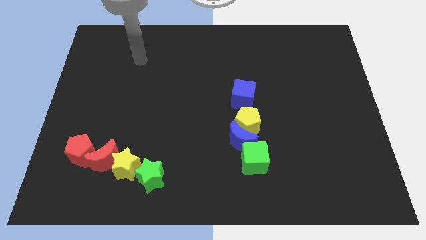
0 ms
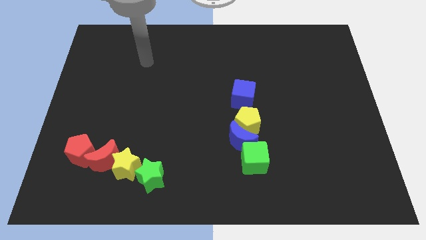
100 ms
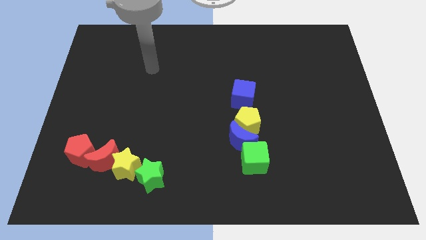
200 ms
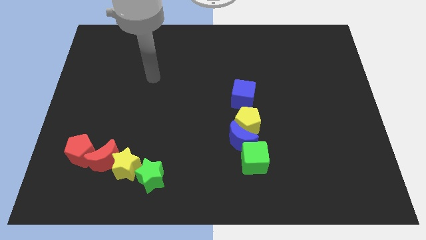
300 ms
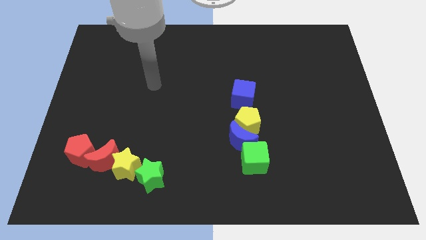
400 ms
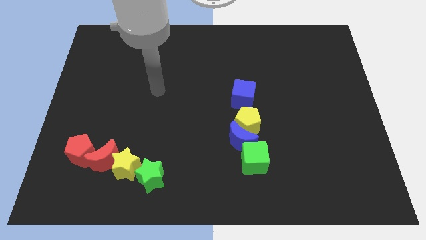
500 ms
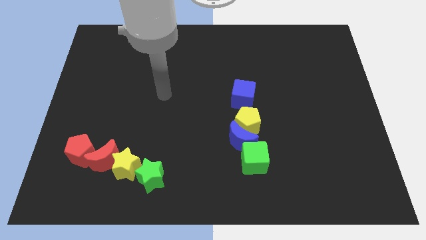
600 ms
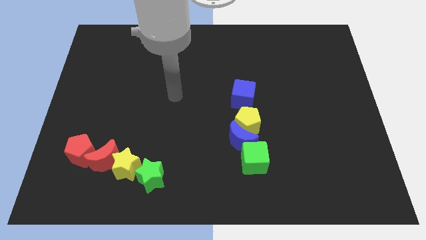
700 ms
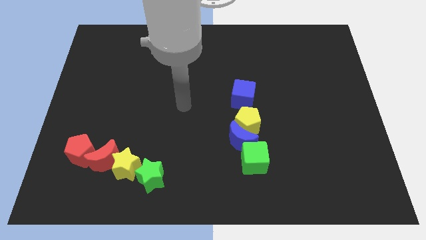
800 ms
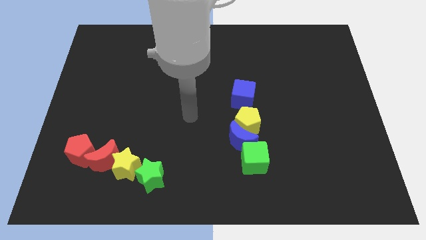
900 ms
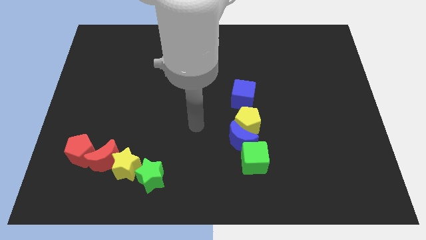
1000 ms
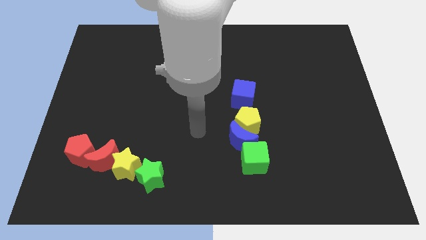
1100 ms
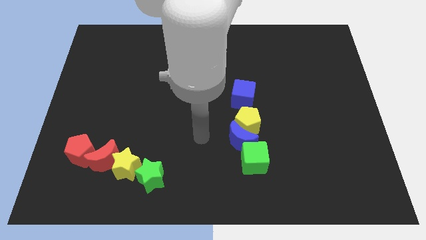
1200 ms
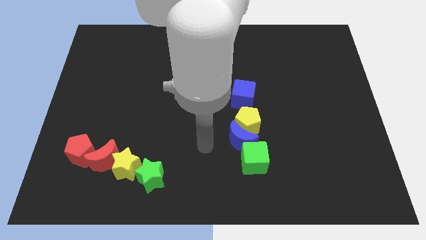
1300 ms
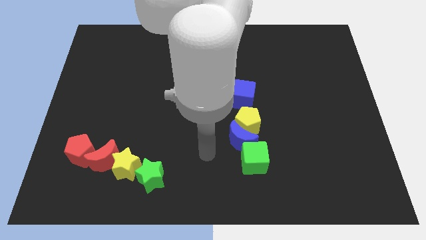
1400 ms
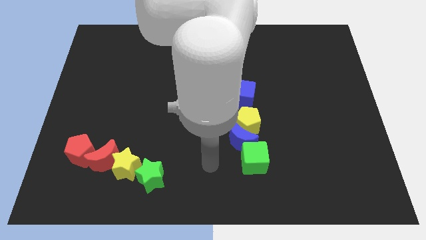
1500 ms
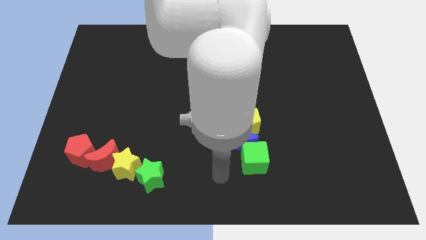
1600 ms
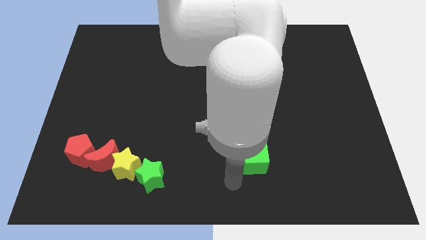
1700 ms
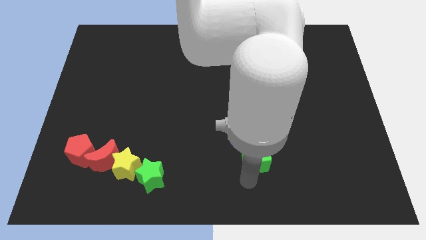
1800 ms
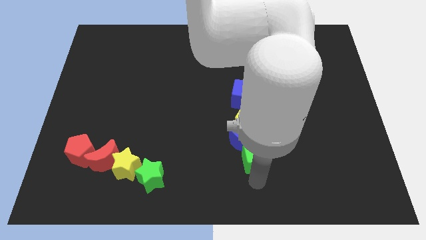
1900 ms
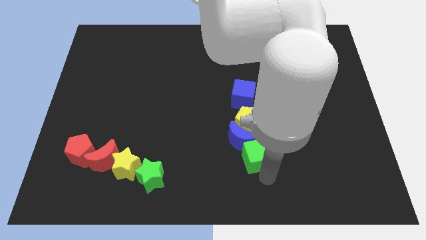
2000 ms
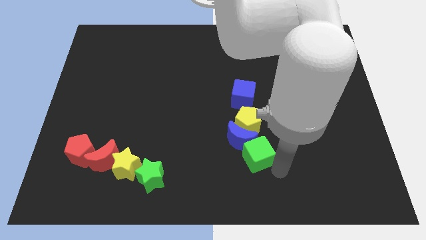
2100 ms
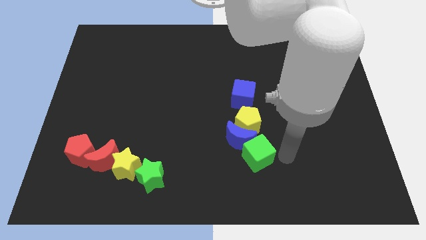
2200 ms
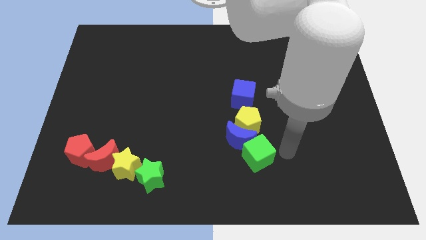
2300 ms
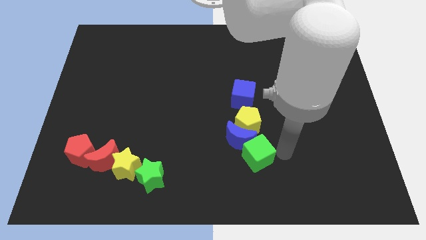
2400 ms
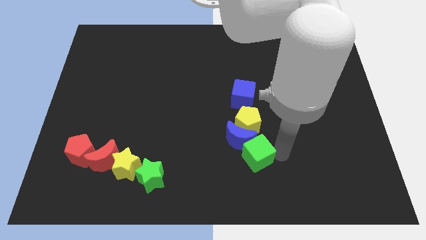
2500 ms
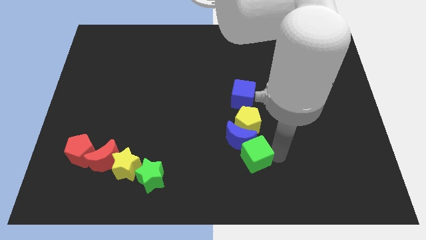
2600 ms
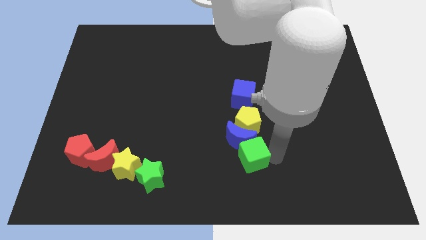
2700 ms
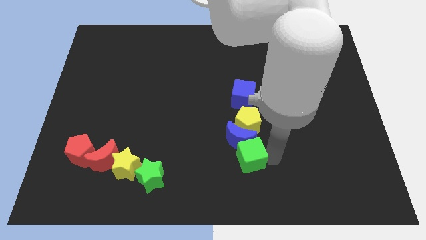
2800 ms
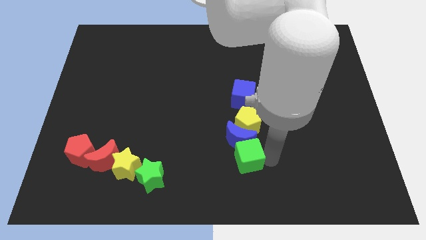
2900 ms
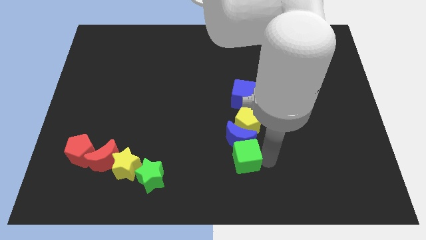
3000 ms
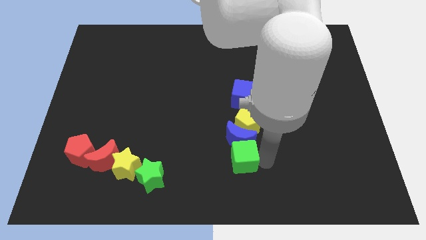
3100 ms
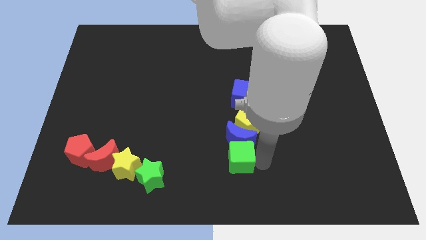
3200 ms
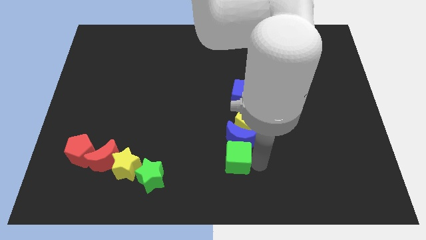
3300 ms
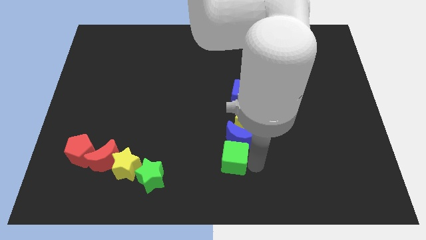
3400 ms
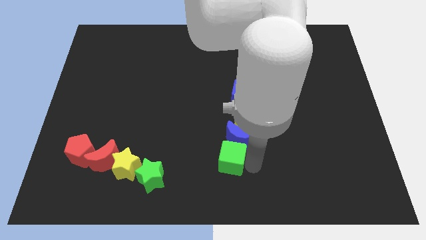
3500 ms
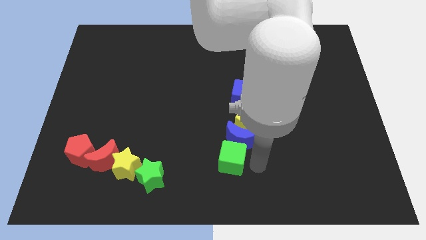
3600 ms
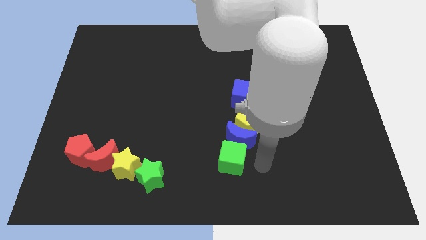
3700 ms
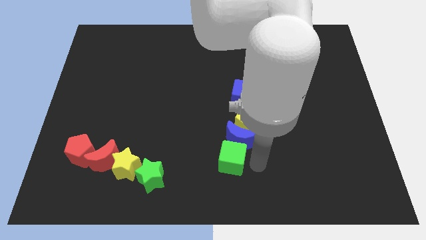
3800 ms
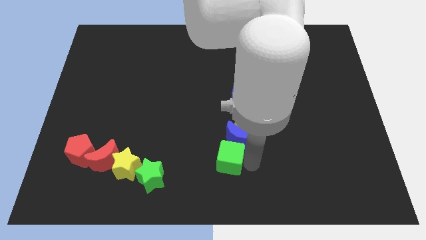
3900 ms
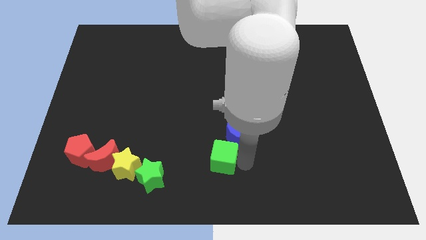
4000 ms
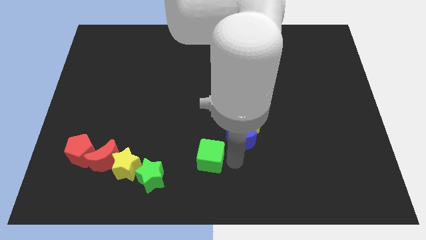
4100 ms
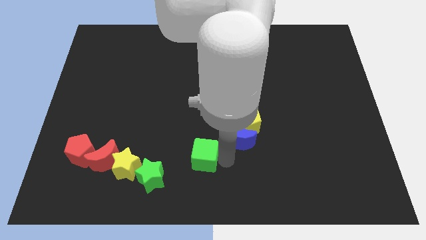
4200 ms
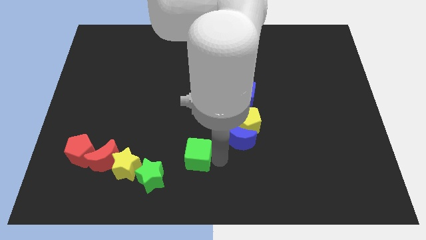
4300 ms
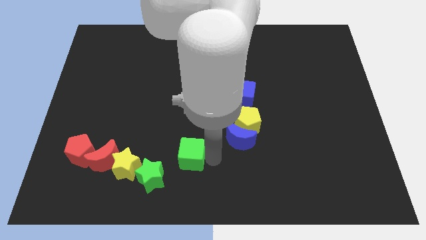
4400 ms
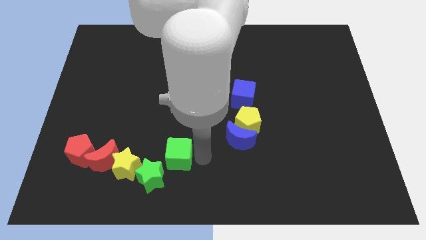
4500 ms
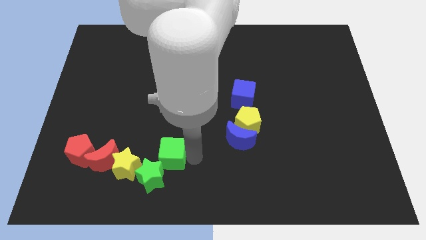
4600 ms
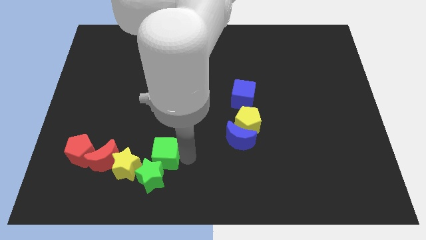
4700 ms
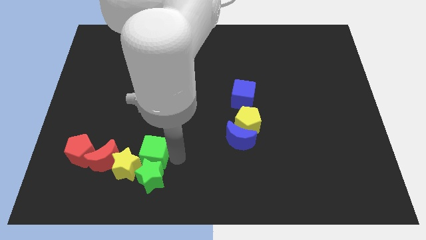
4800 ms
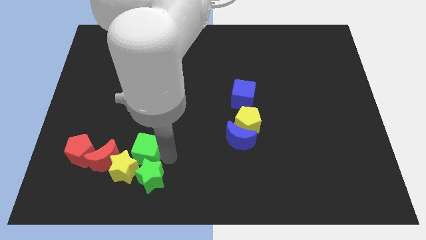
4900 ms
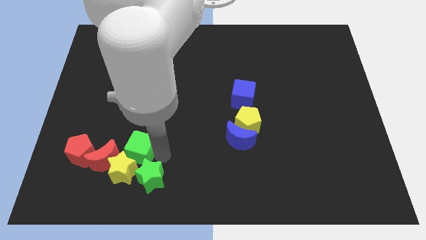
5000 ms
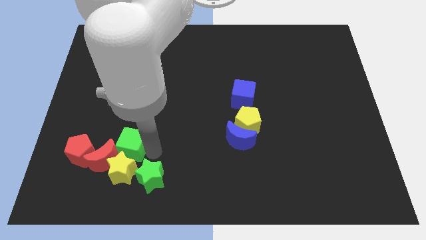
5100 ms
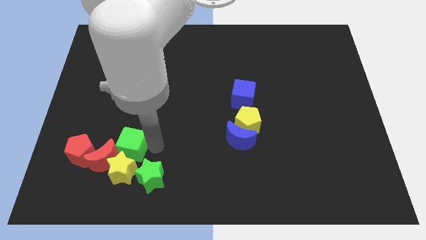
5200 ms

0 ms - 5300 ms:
slide the green cube towards the red moon

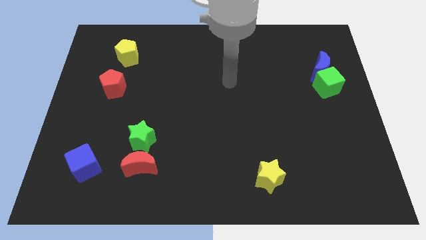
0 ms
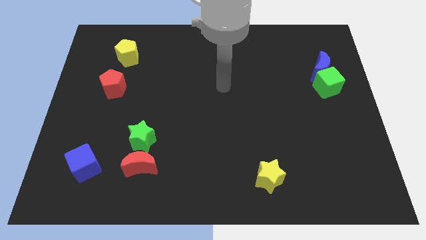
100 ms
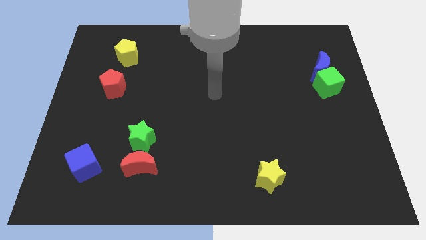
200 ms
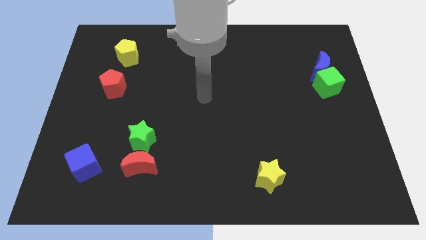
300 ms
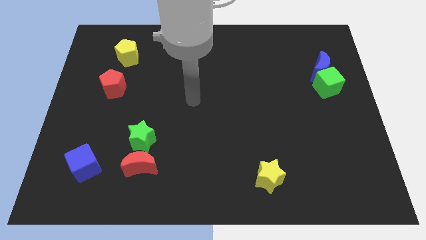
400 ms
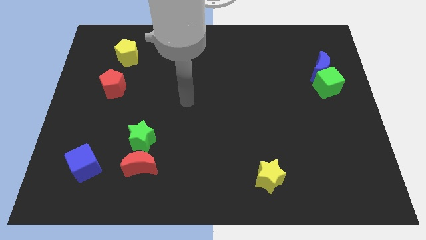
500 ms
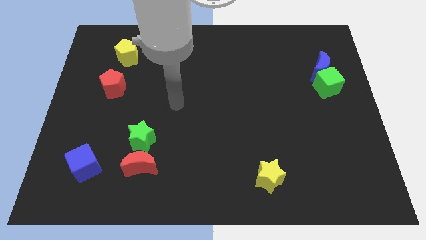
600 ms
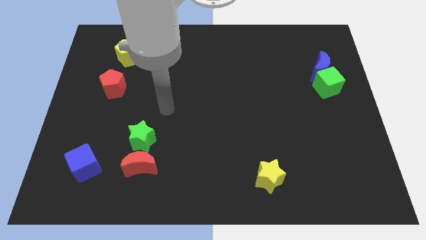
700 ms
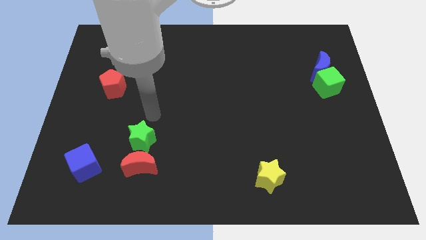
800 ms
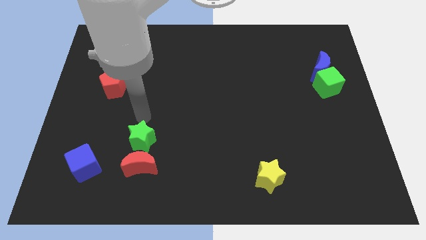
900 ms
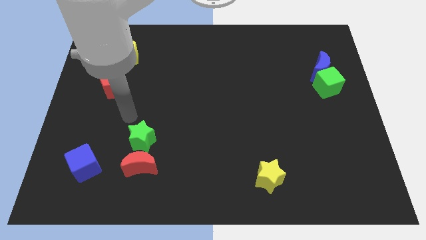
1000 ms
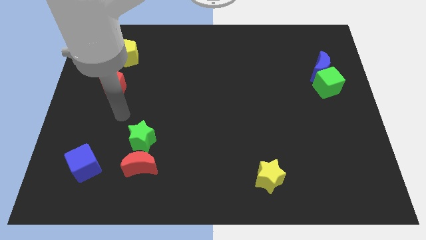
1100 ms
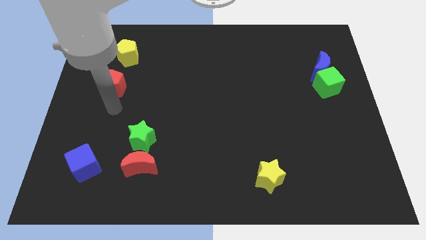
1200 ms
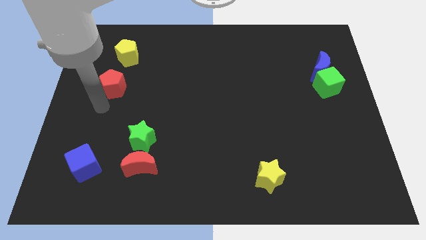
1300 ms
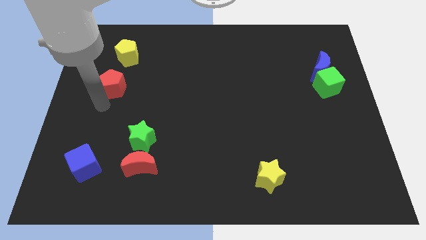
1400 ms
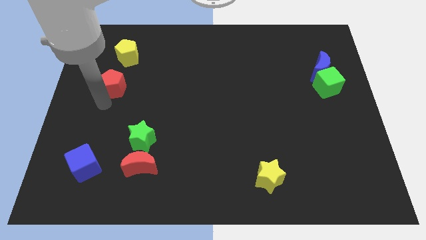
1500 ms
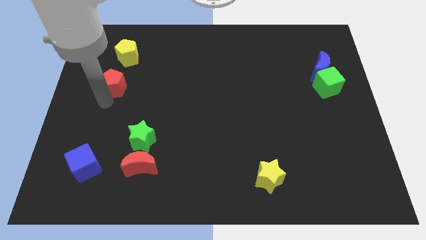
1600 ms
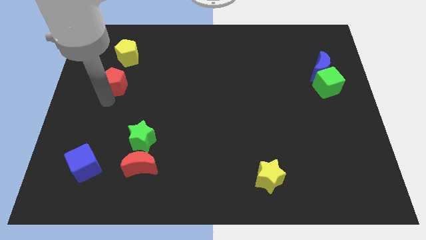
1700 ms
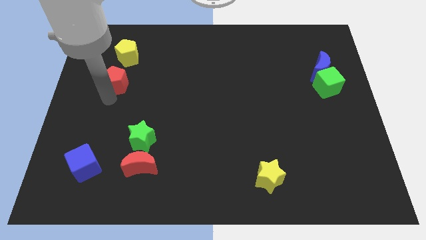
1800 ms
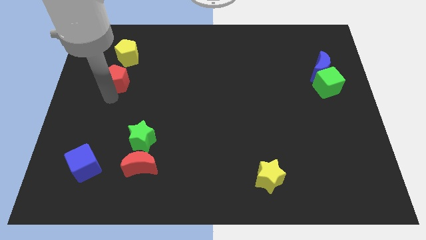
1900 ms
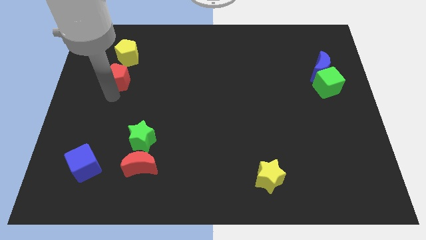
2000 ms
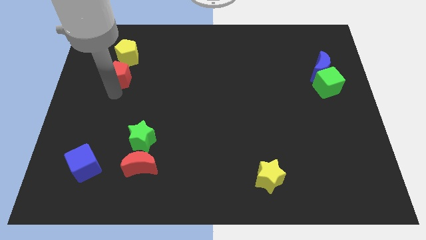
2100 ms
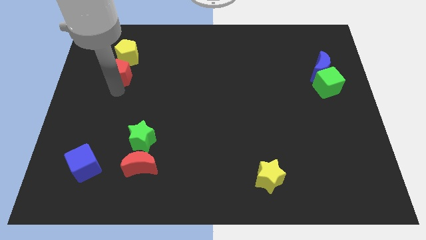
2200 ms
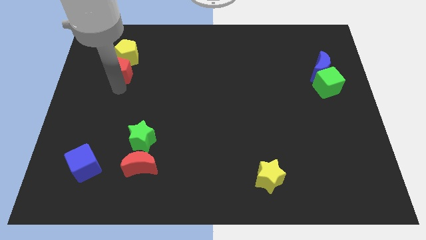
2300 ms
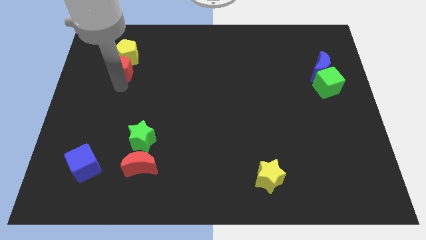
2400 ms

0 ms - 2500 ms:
put the red pentagon to the yellow pentagon

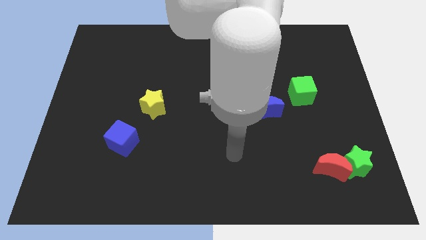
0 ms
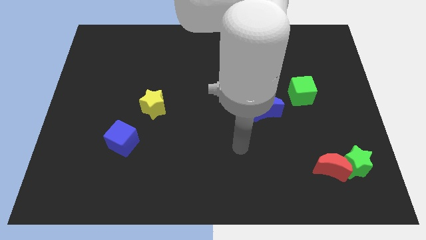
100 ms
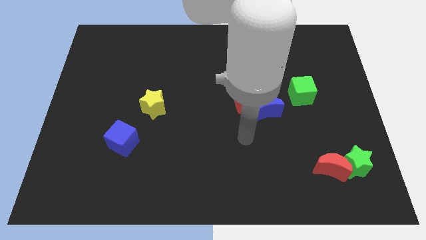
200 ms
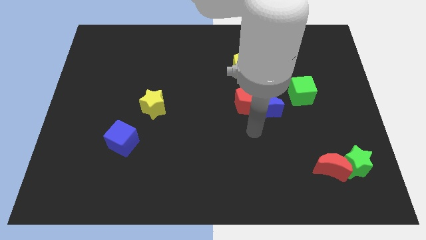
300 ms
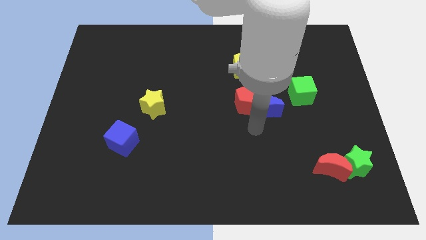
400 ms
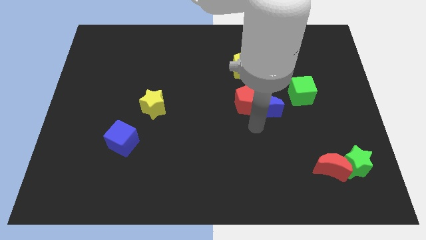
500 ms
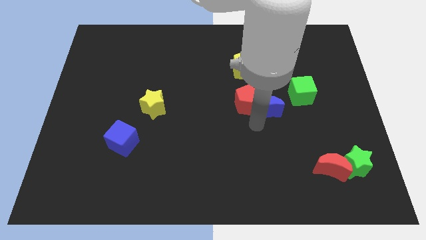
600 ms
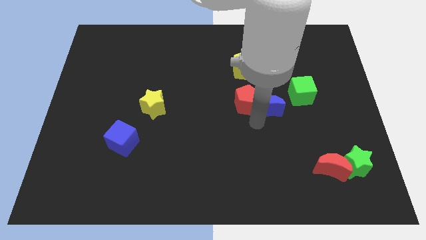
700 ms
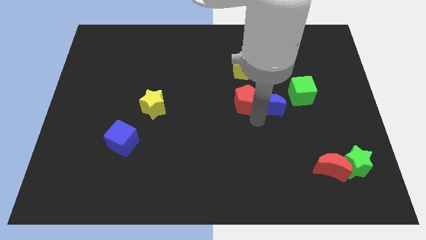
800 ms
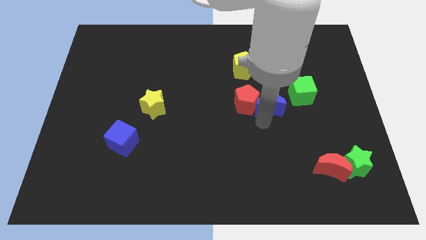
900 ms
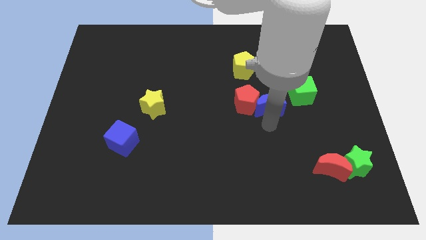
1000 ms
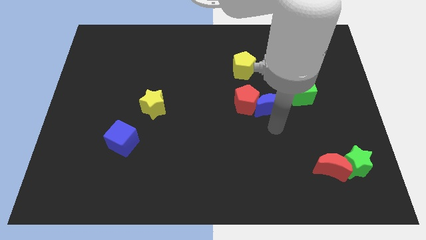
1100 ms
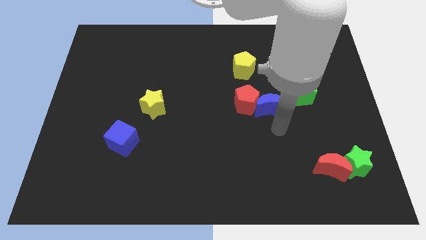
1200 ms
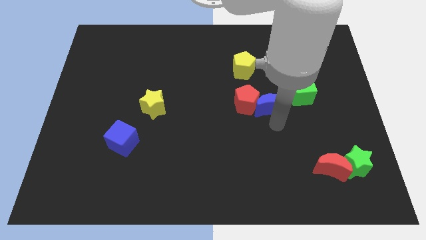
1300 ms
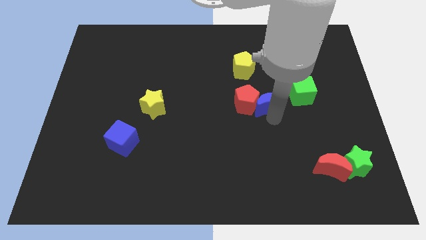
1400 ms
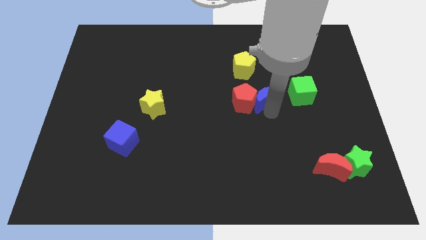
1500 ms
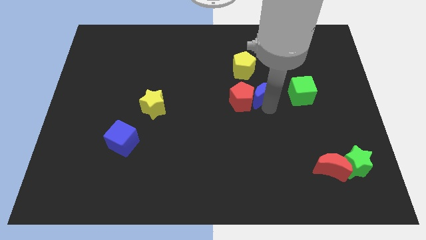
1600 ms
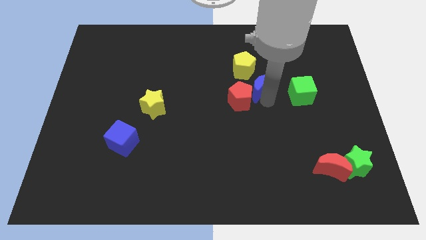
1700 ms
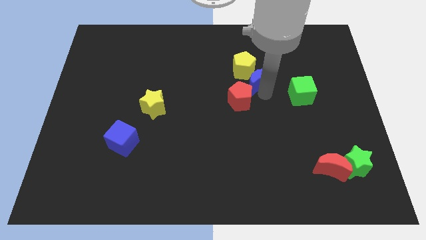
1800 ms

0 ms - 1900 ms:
move the blue moon to the yellow pentagon
